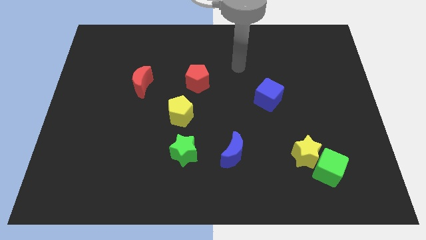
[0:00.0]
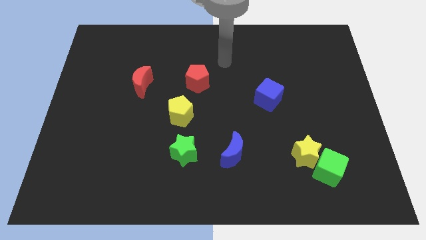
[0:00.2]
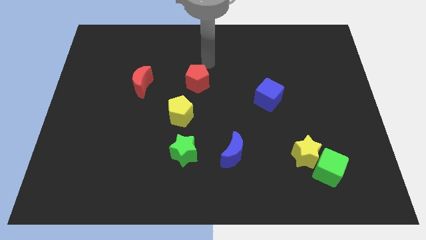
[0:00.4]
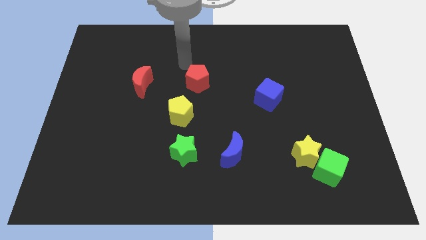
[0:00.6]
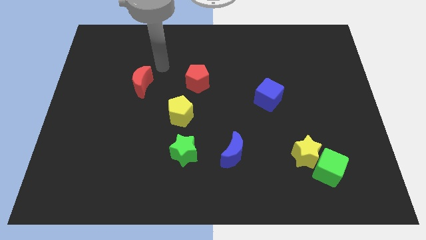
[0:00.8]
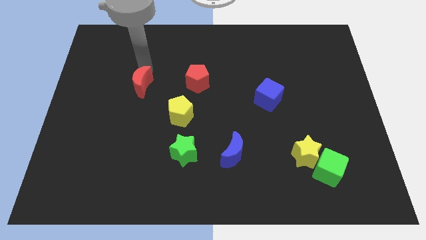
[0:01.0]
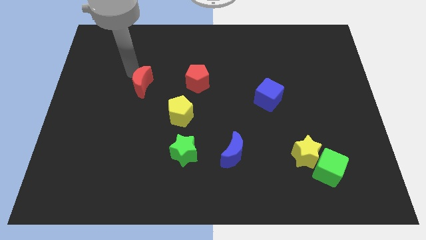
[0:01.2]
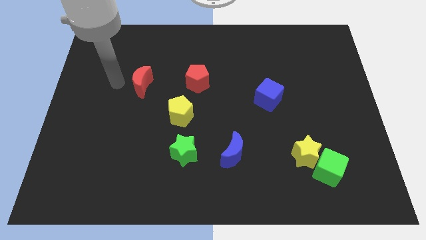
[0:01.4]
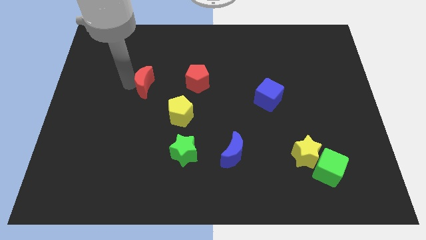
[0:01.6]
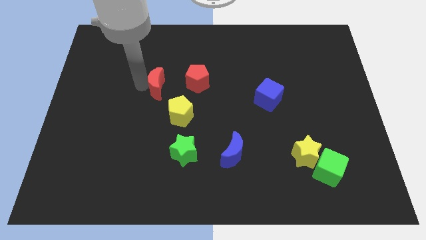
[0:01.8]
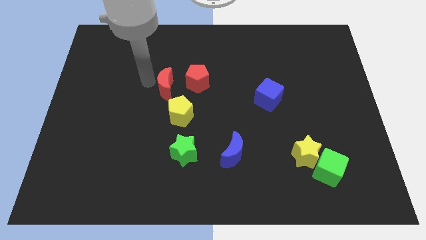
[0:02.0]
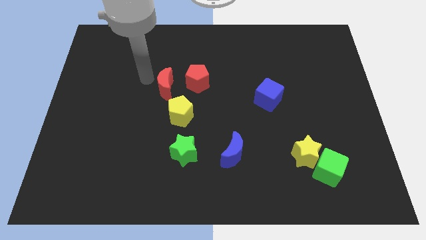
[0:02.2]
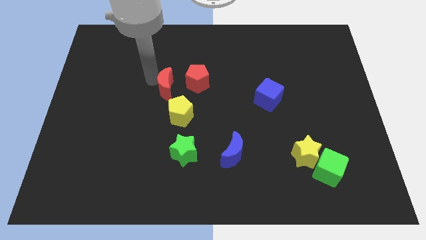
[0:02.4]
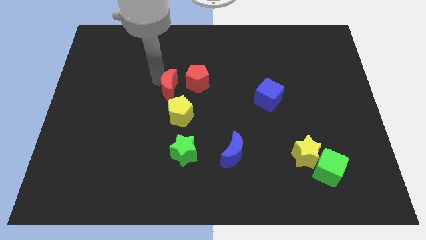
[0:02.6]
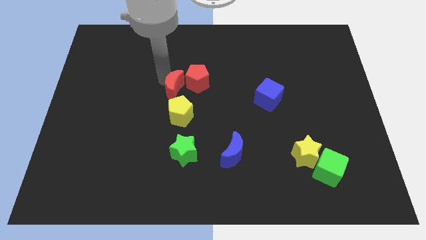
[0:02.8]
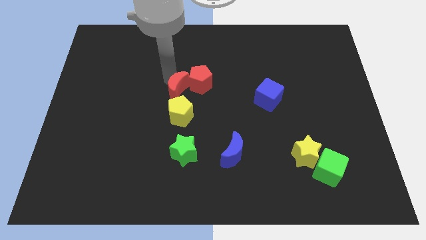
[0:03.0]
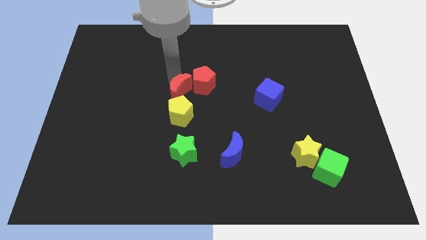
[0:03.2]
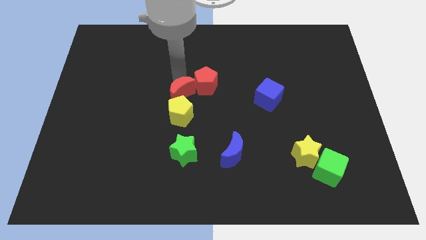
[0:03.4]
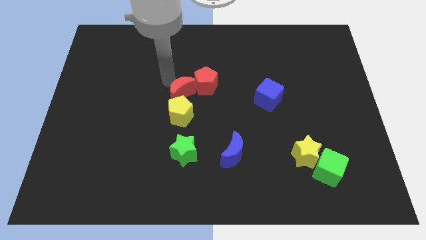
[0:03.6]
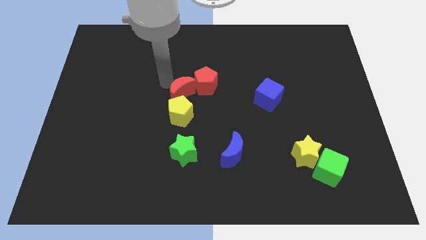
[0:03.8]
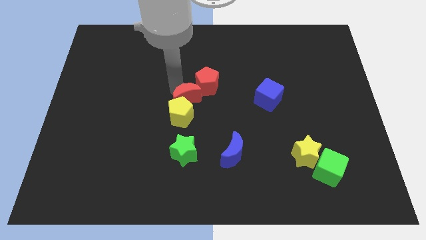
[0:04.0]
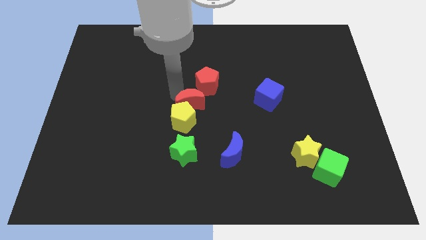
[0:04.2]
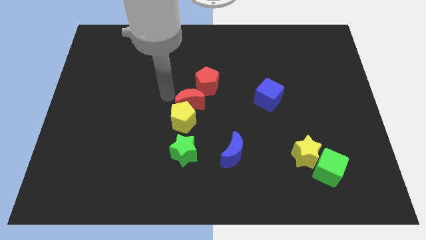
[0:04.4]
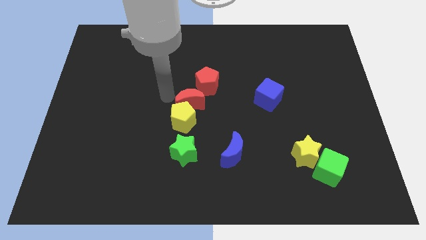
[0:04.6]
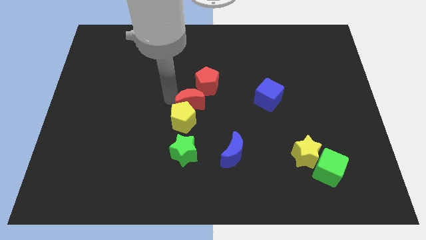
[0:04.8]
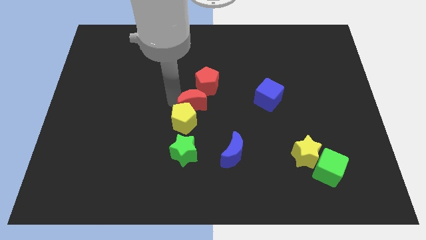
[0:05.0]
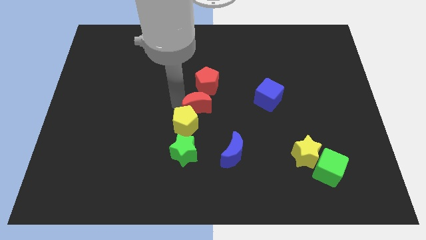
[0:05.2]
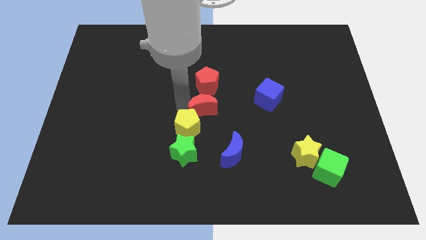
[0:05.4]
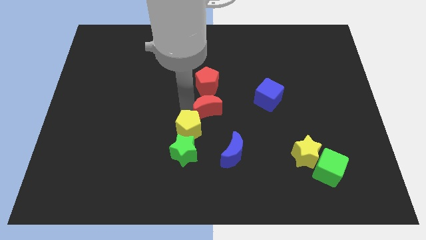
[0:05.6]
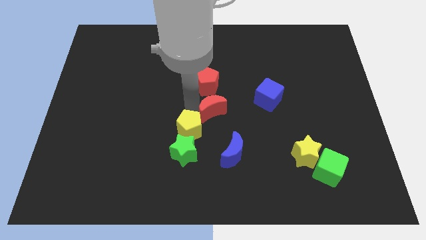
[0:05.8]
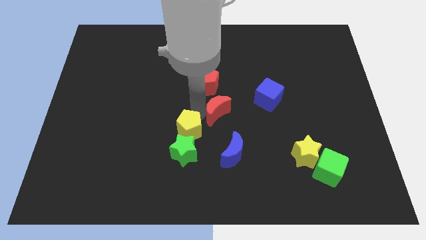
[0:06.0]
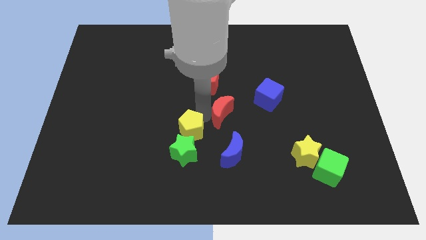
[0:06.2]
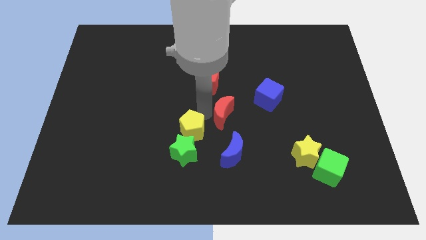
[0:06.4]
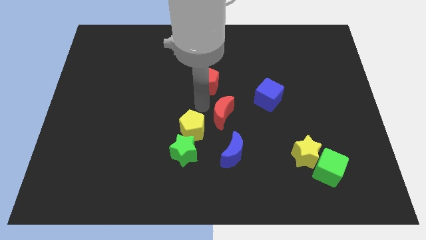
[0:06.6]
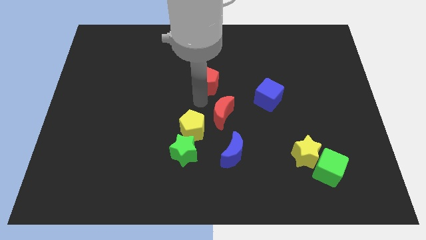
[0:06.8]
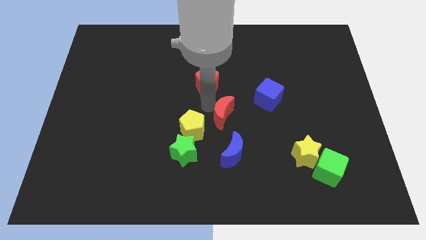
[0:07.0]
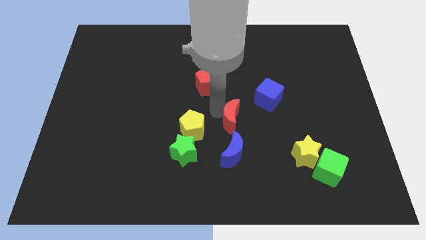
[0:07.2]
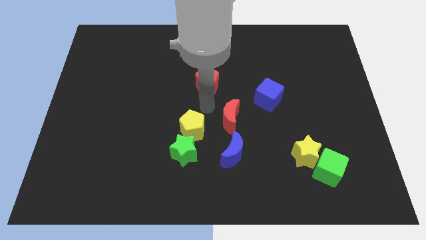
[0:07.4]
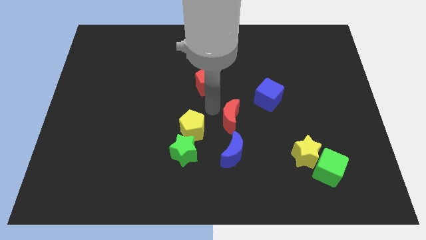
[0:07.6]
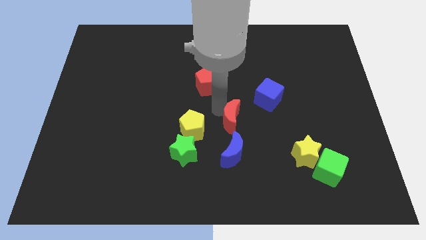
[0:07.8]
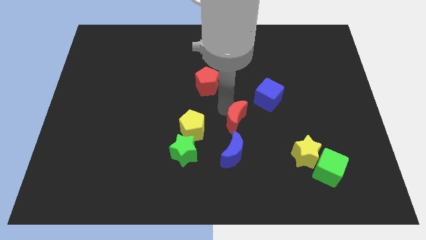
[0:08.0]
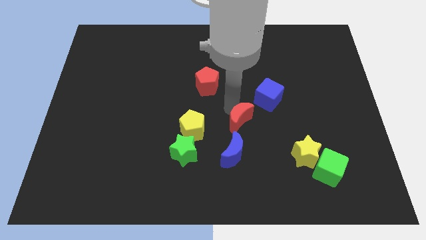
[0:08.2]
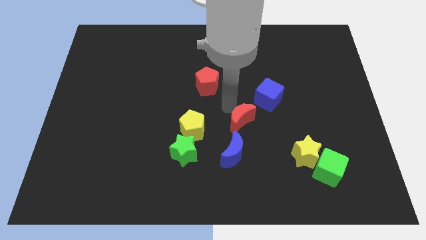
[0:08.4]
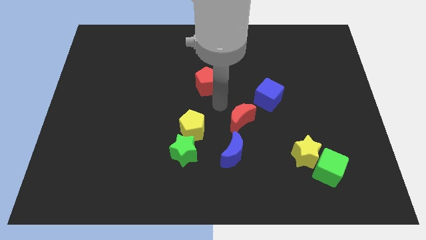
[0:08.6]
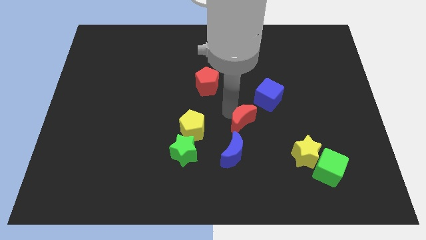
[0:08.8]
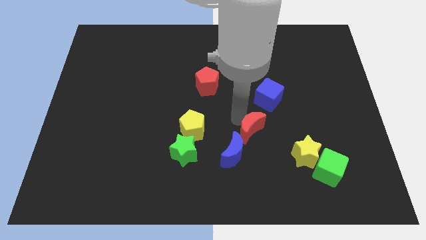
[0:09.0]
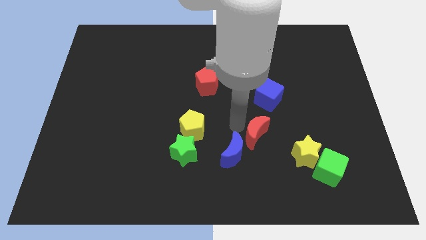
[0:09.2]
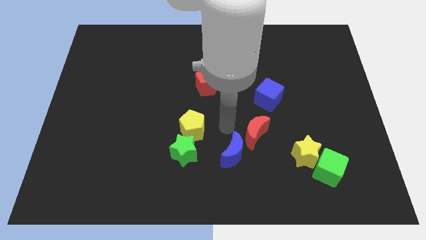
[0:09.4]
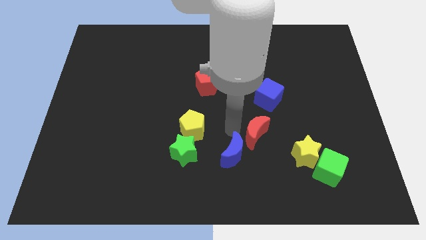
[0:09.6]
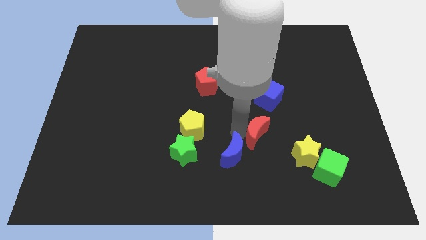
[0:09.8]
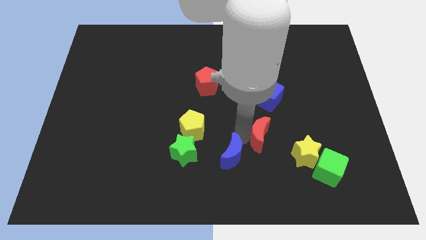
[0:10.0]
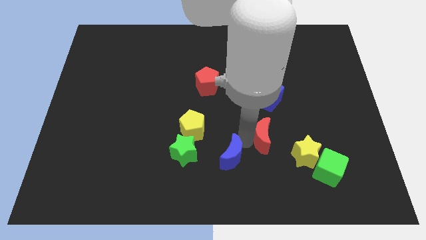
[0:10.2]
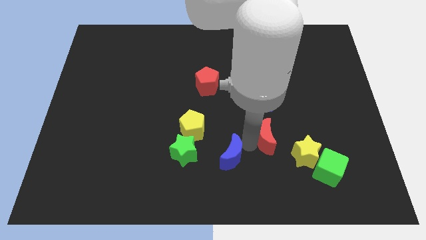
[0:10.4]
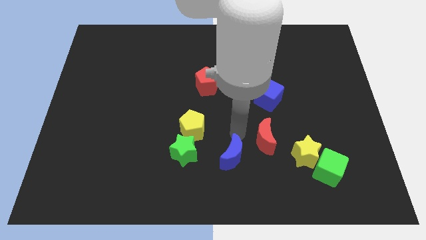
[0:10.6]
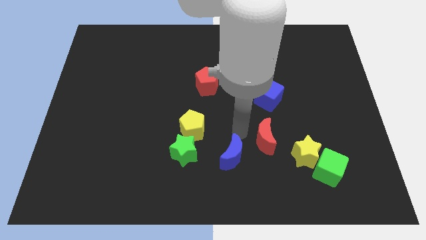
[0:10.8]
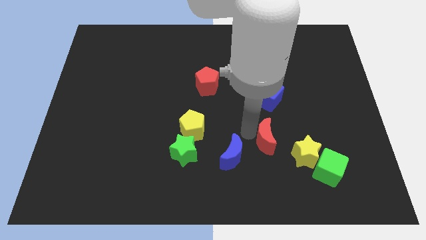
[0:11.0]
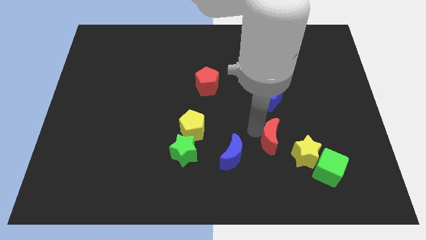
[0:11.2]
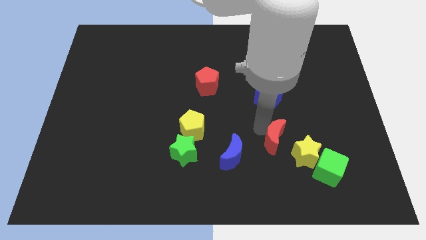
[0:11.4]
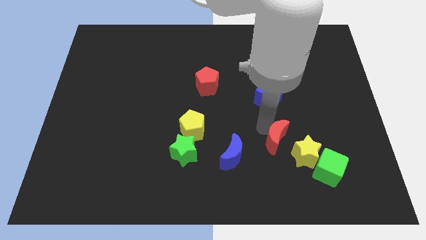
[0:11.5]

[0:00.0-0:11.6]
push the red moon diagonally up and to the left of the green cube

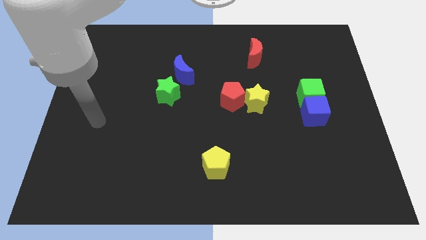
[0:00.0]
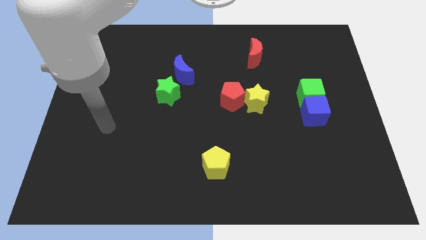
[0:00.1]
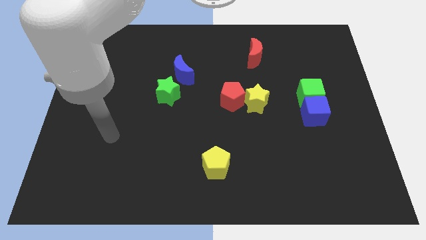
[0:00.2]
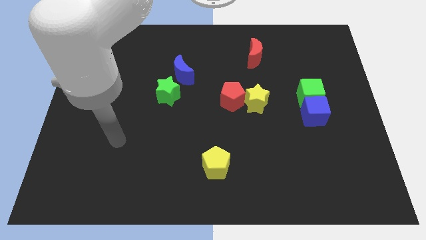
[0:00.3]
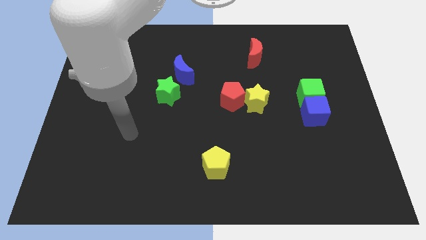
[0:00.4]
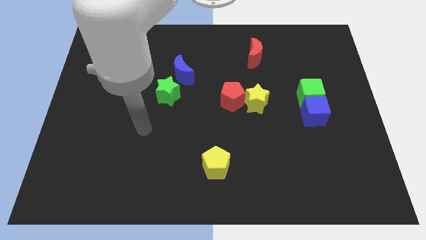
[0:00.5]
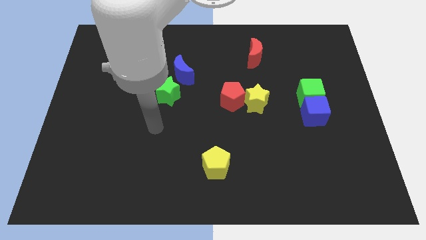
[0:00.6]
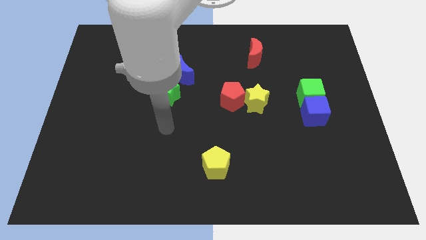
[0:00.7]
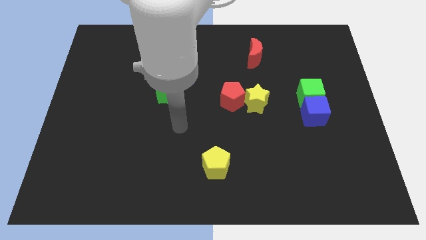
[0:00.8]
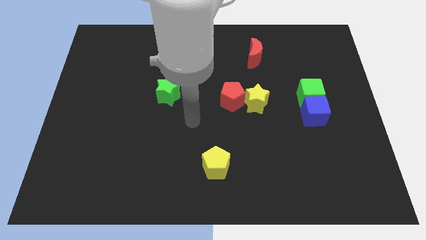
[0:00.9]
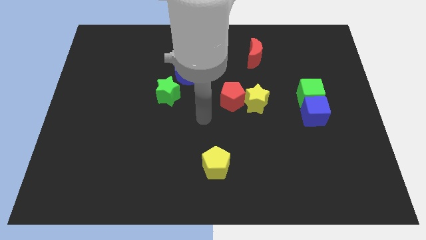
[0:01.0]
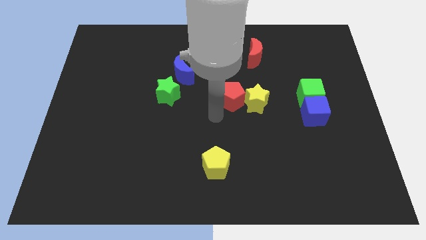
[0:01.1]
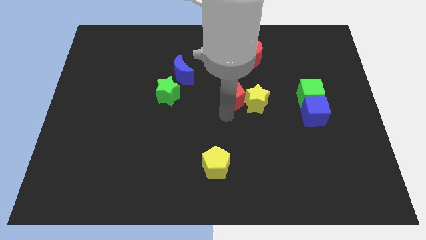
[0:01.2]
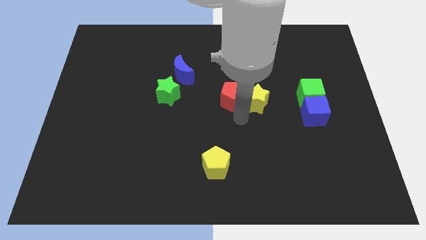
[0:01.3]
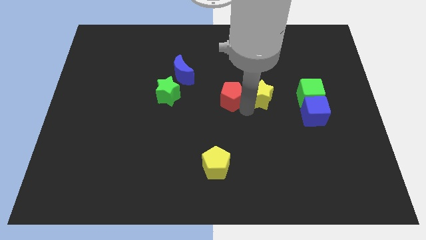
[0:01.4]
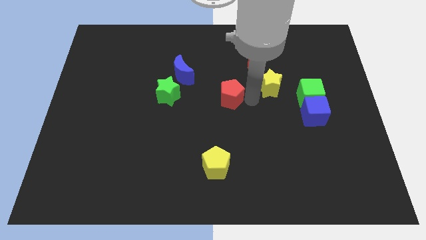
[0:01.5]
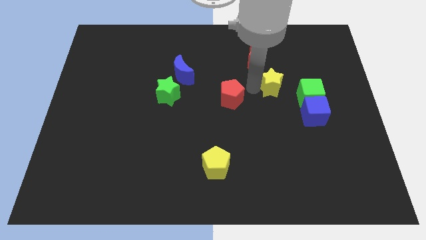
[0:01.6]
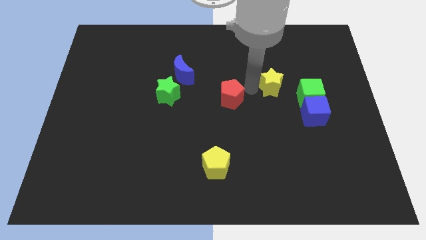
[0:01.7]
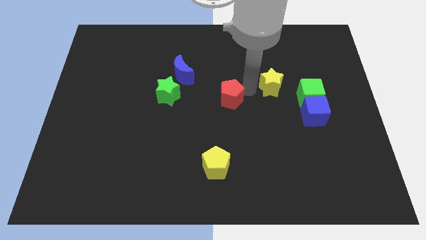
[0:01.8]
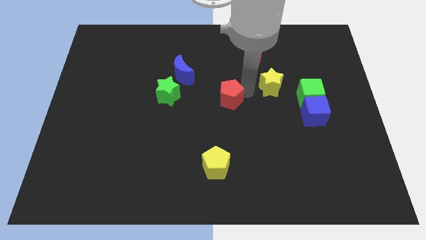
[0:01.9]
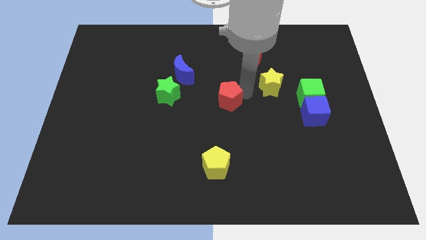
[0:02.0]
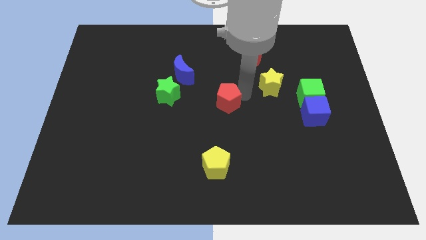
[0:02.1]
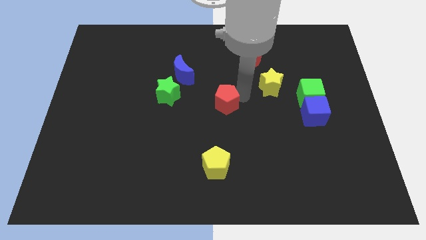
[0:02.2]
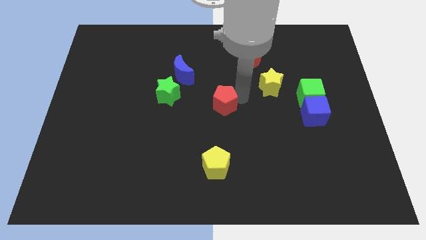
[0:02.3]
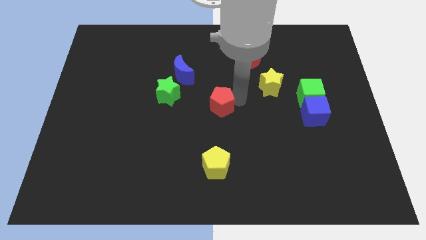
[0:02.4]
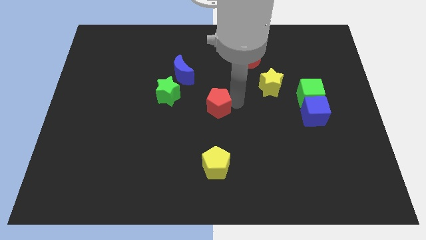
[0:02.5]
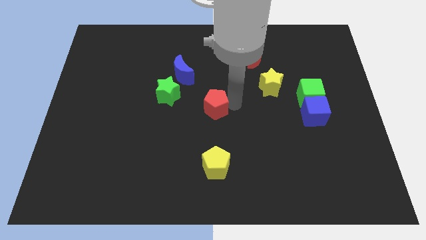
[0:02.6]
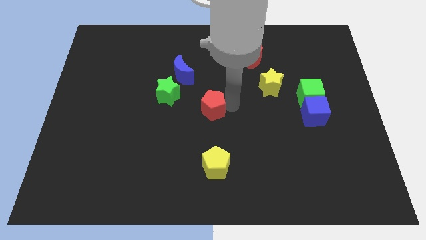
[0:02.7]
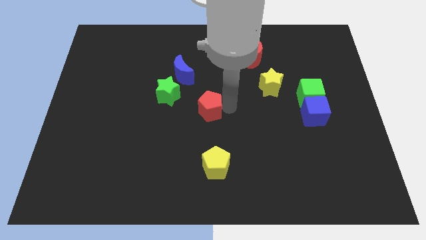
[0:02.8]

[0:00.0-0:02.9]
push the red pentagon to the bottom right side of the green star
